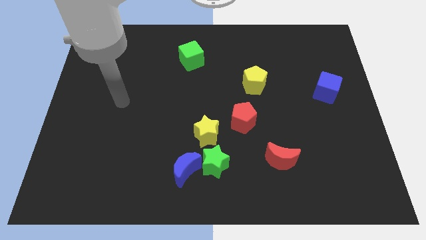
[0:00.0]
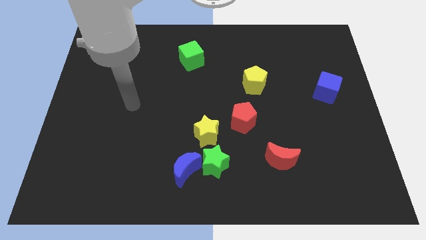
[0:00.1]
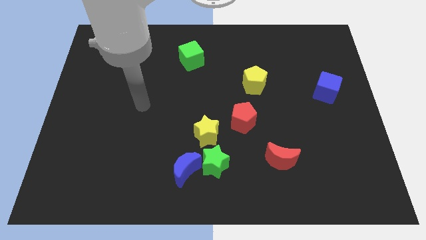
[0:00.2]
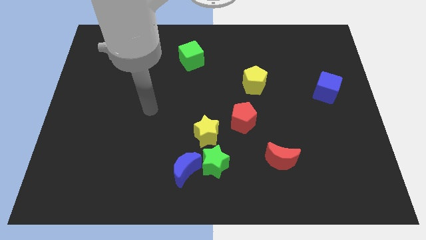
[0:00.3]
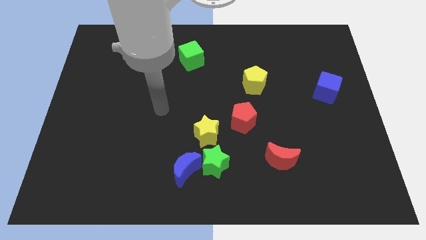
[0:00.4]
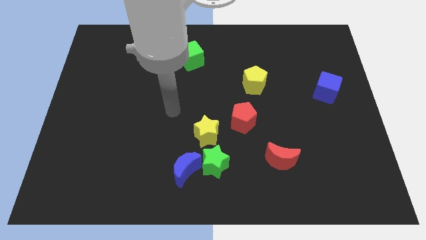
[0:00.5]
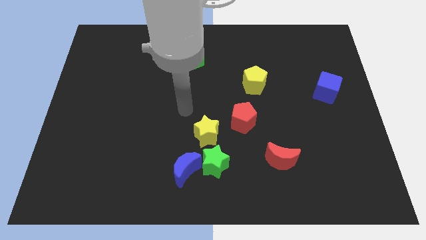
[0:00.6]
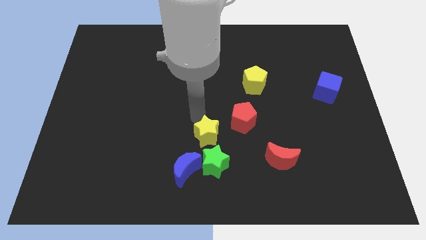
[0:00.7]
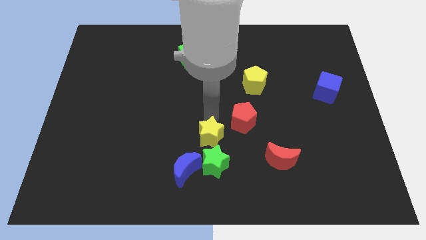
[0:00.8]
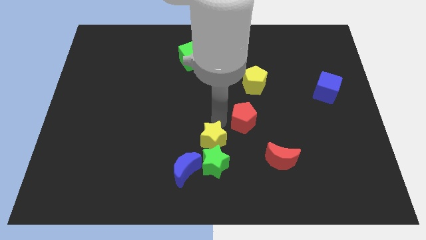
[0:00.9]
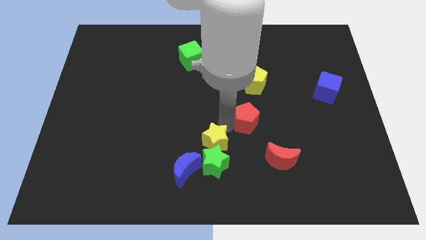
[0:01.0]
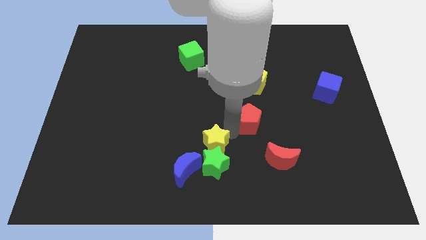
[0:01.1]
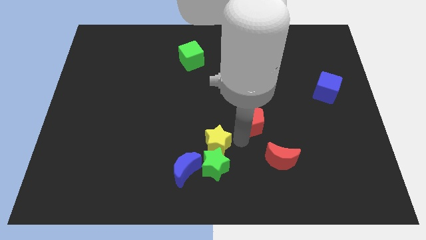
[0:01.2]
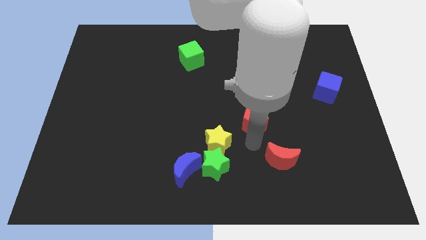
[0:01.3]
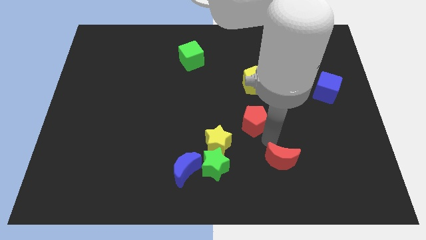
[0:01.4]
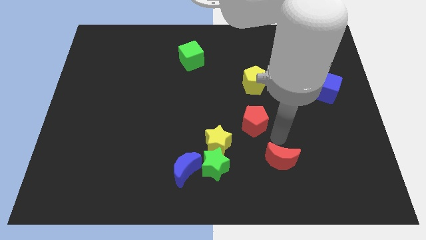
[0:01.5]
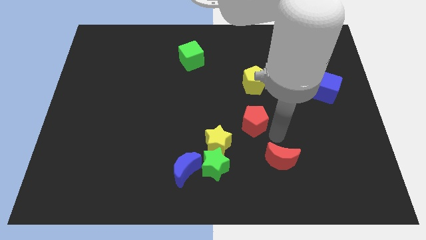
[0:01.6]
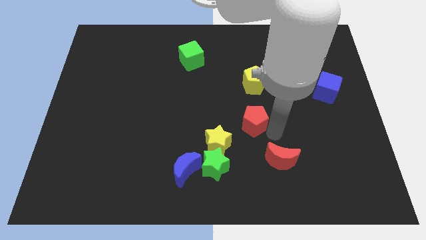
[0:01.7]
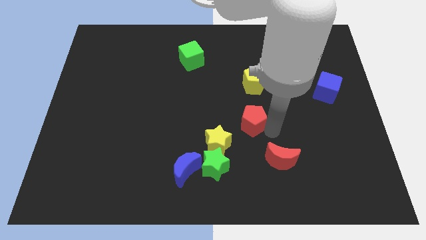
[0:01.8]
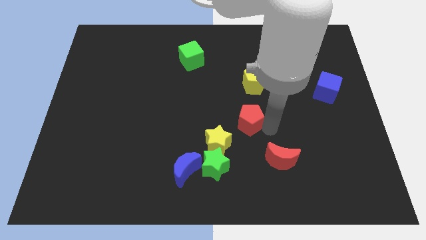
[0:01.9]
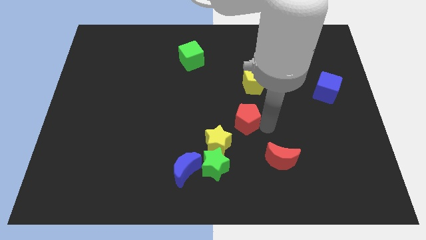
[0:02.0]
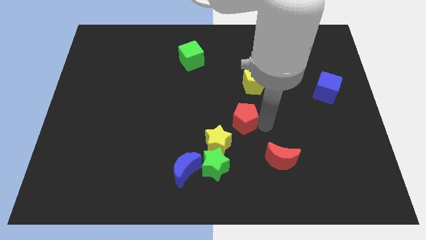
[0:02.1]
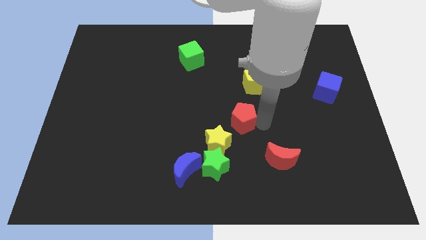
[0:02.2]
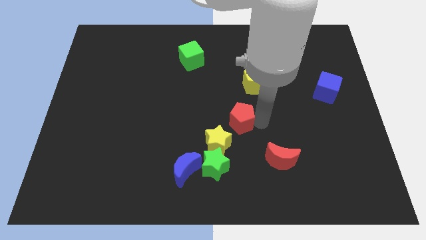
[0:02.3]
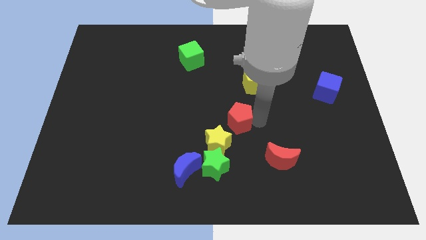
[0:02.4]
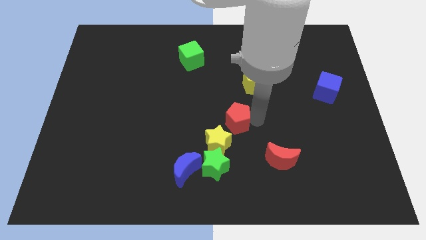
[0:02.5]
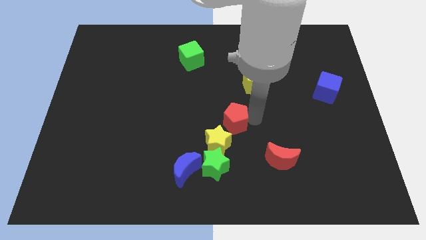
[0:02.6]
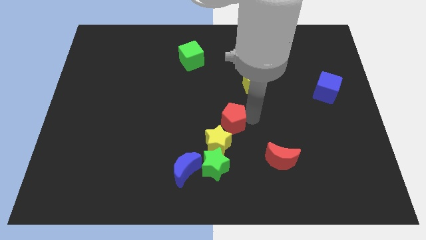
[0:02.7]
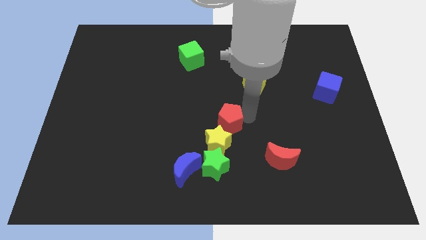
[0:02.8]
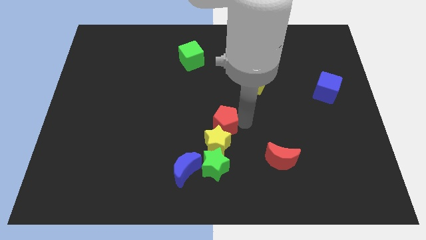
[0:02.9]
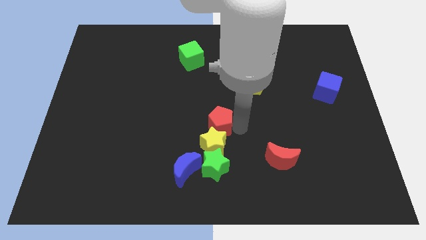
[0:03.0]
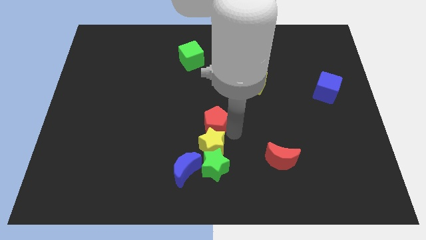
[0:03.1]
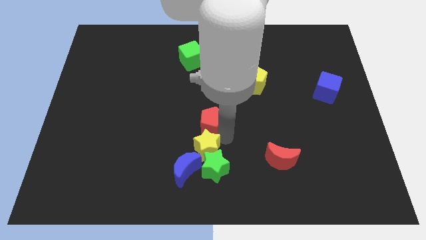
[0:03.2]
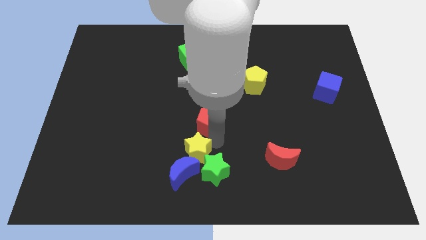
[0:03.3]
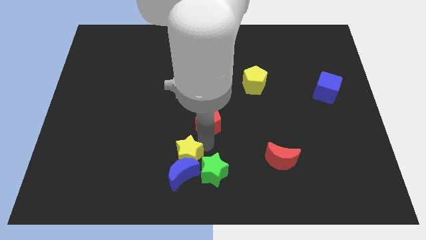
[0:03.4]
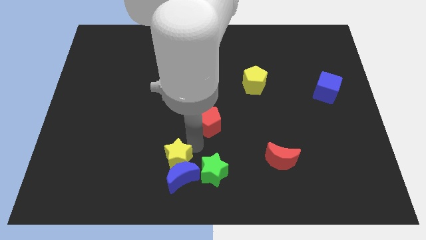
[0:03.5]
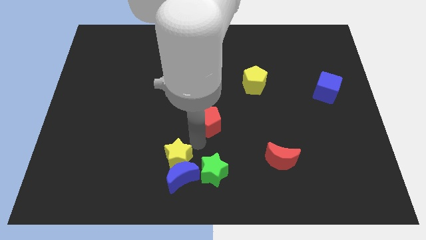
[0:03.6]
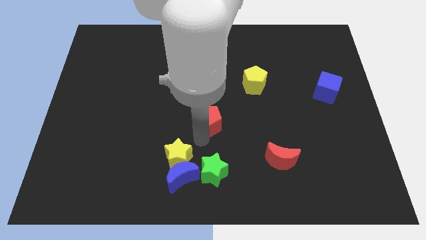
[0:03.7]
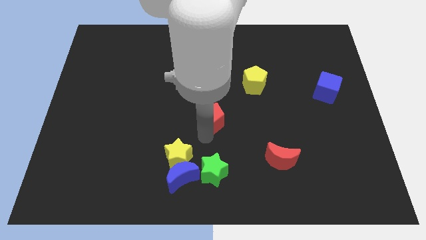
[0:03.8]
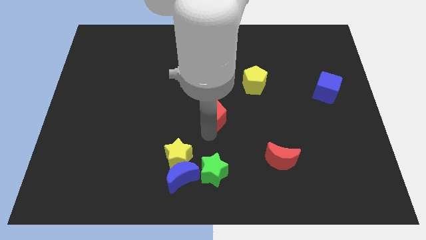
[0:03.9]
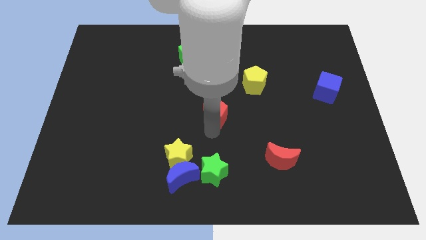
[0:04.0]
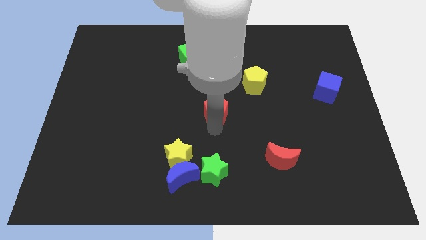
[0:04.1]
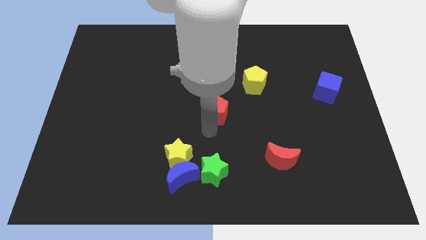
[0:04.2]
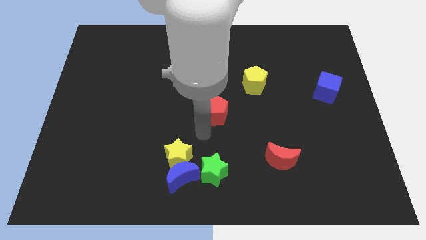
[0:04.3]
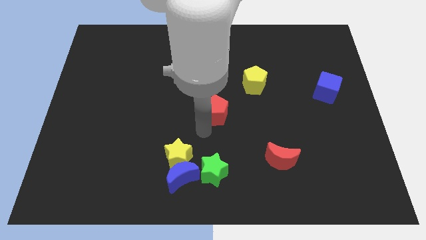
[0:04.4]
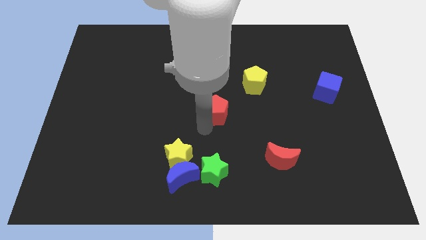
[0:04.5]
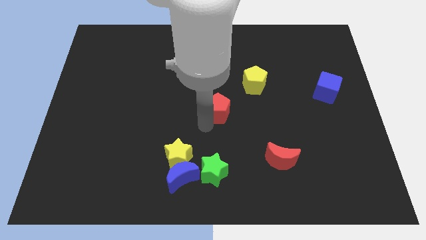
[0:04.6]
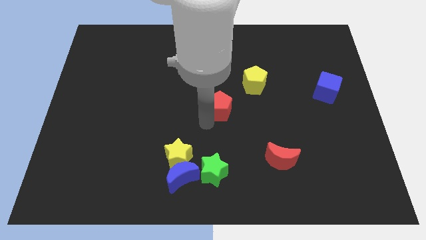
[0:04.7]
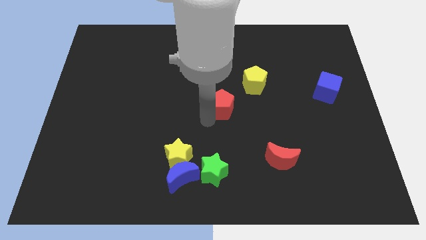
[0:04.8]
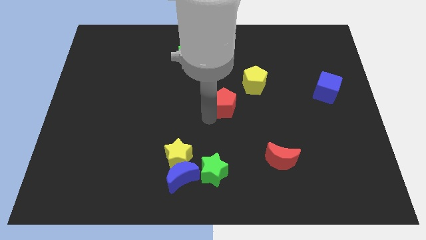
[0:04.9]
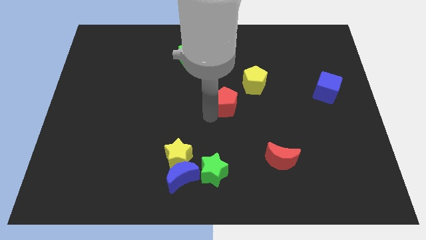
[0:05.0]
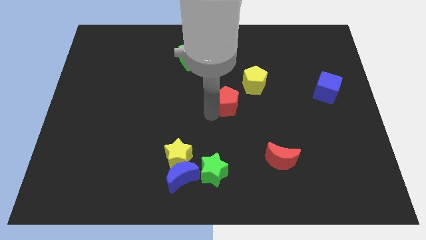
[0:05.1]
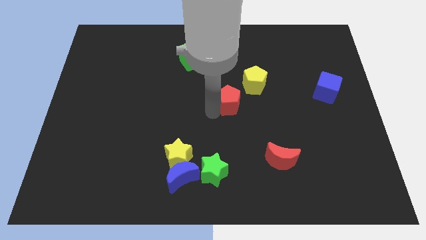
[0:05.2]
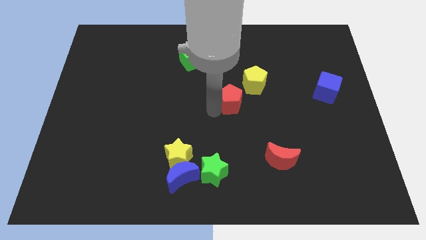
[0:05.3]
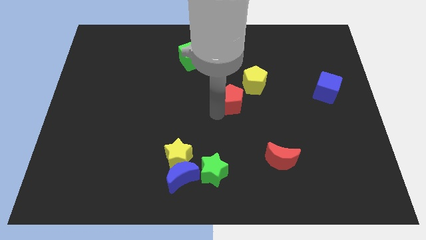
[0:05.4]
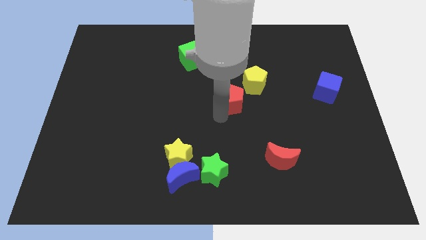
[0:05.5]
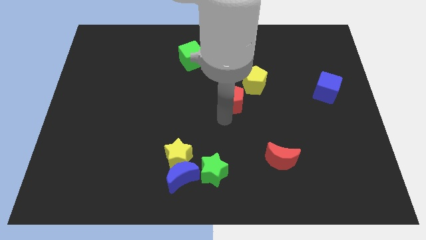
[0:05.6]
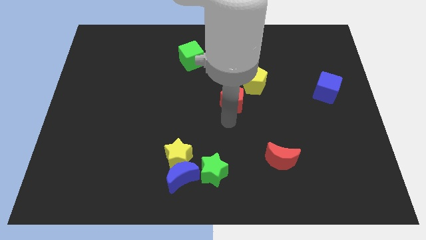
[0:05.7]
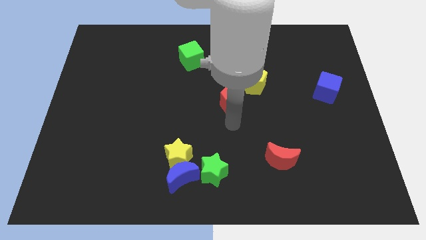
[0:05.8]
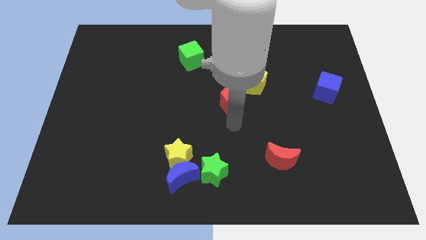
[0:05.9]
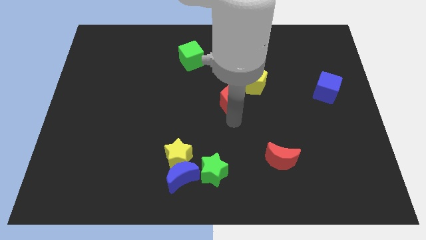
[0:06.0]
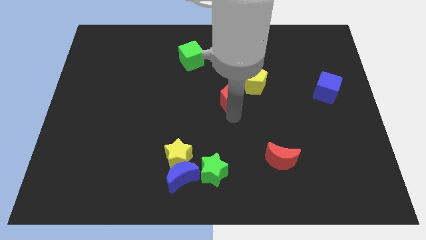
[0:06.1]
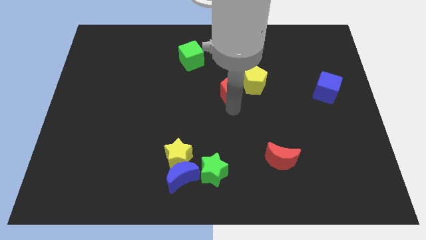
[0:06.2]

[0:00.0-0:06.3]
slide the red pentagon up a bit

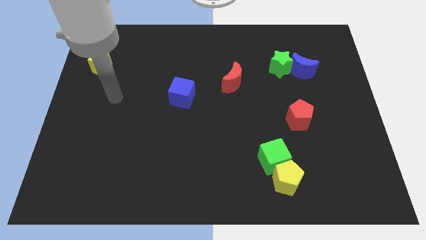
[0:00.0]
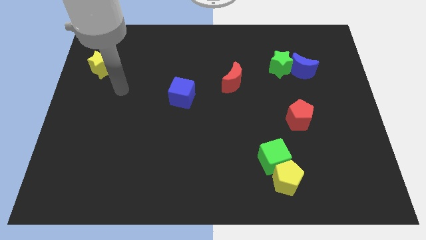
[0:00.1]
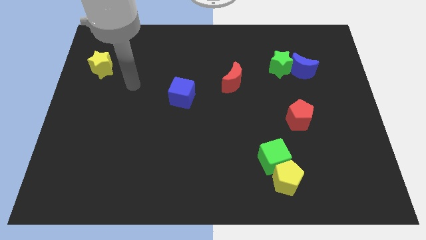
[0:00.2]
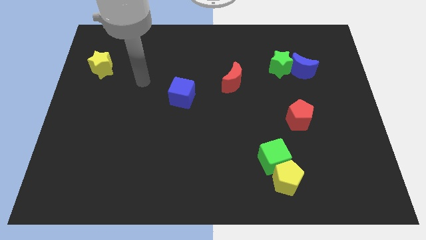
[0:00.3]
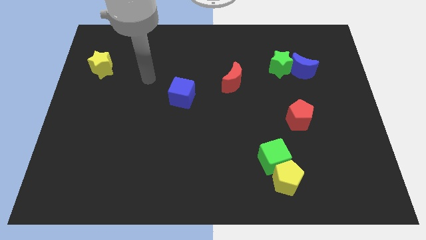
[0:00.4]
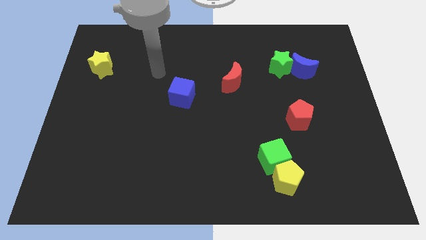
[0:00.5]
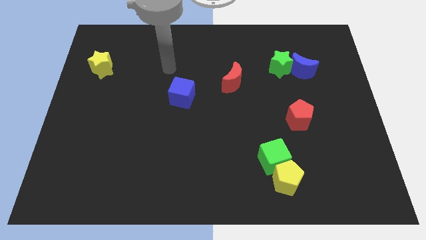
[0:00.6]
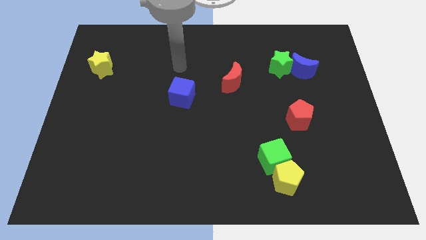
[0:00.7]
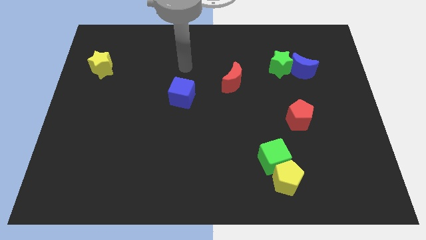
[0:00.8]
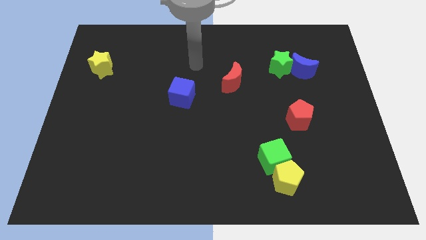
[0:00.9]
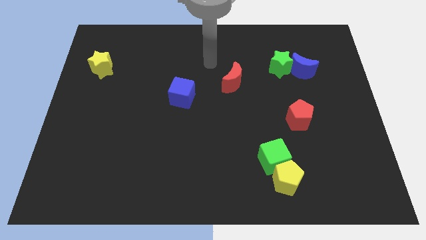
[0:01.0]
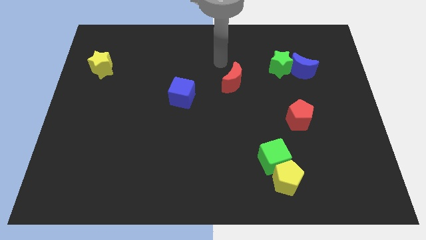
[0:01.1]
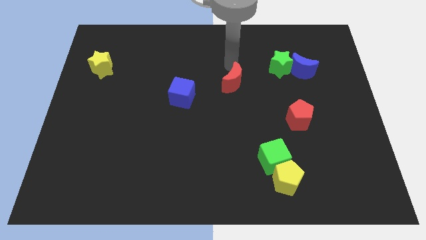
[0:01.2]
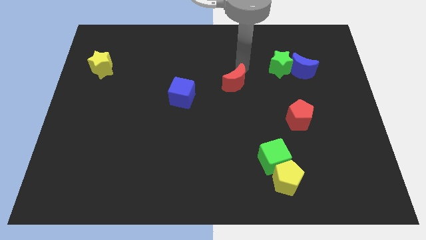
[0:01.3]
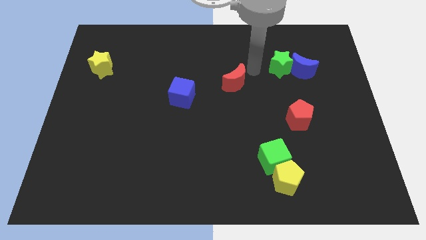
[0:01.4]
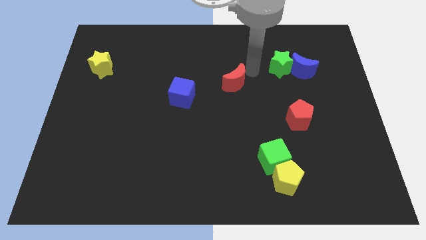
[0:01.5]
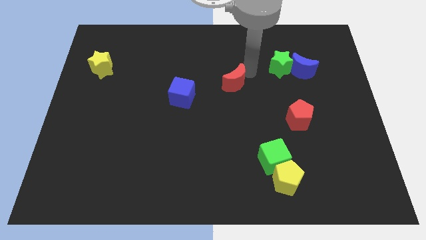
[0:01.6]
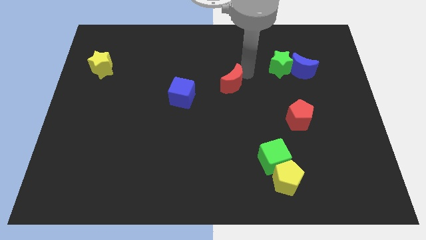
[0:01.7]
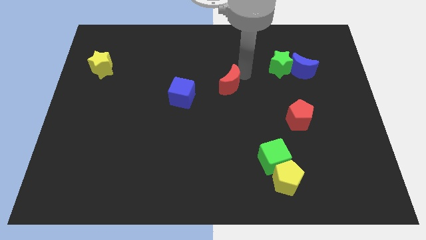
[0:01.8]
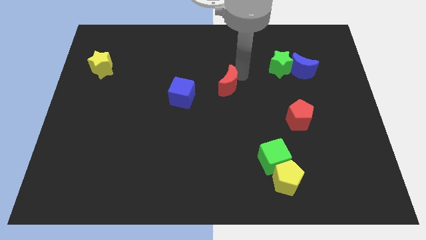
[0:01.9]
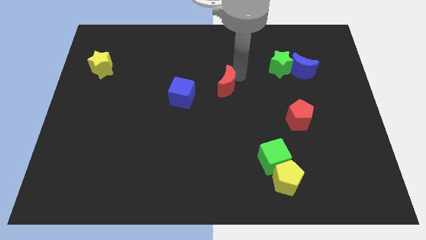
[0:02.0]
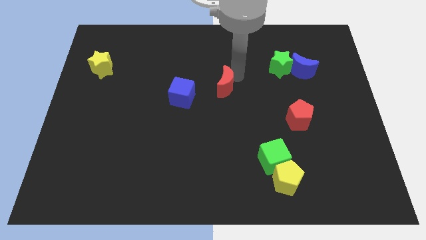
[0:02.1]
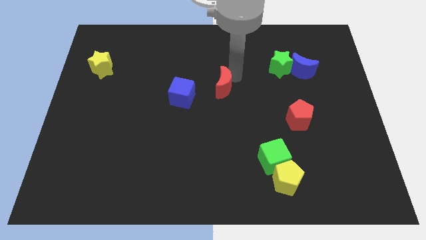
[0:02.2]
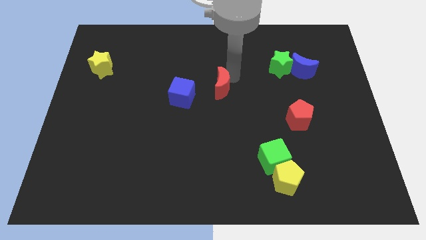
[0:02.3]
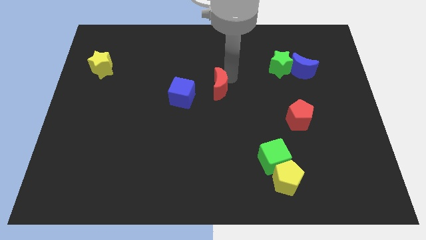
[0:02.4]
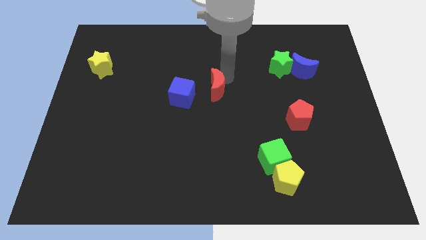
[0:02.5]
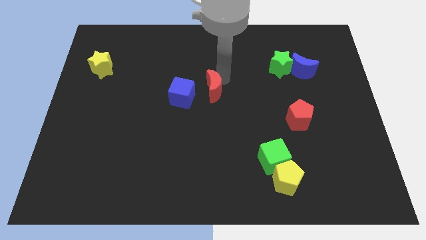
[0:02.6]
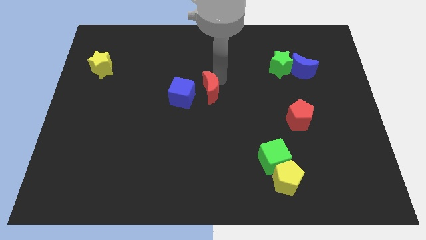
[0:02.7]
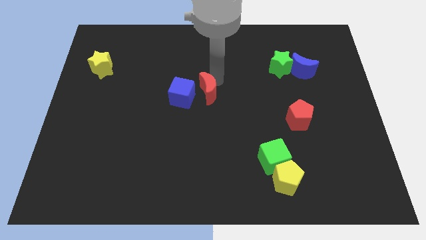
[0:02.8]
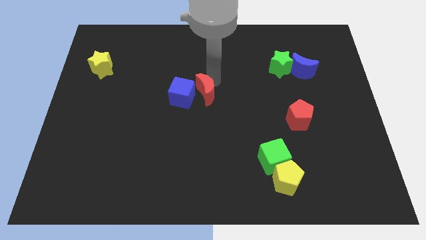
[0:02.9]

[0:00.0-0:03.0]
push the red moon somewhat diagonally down and to the left
